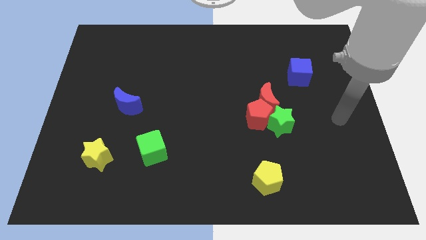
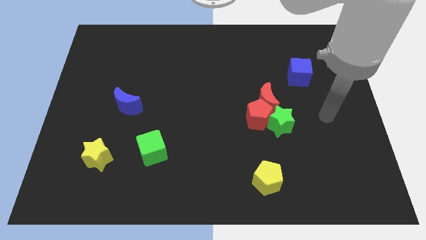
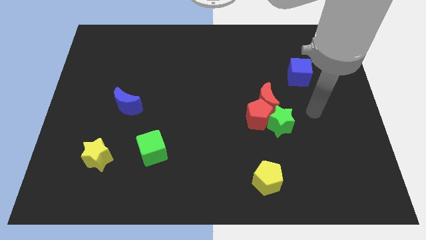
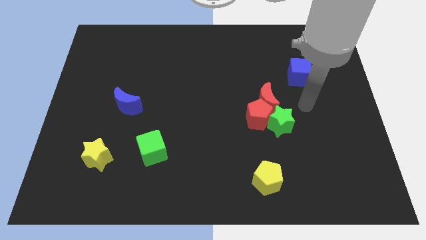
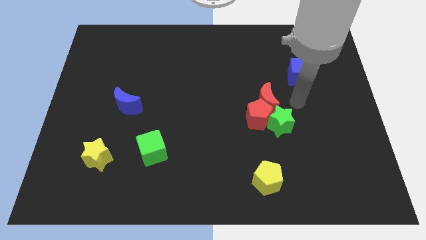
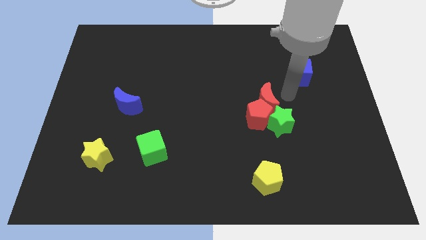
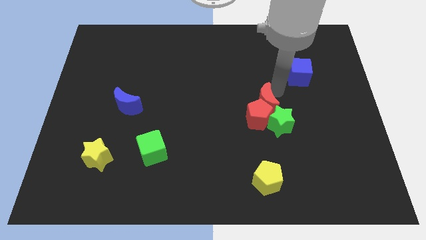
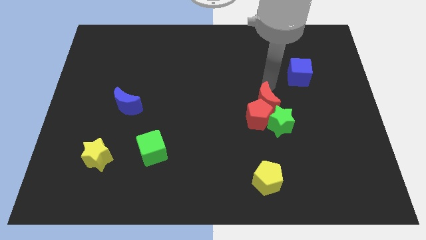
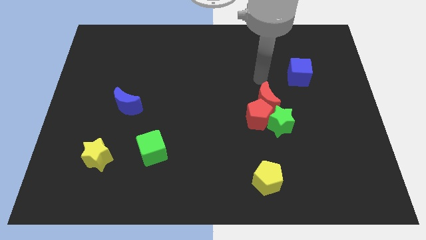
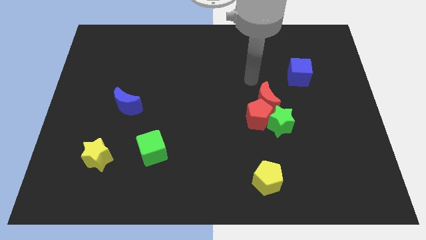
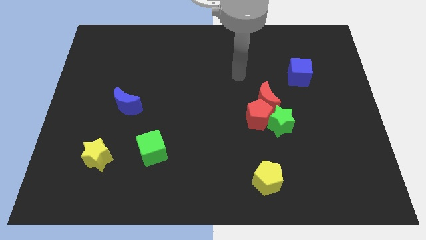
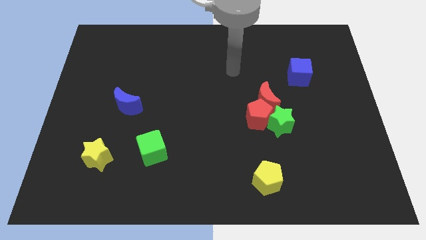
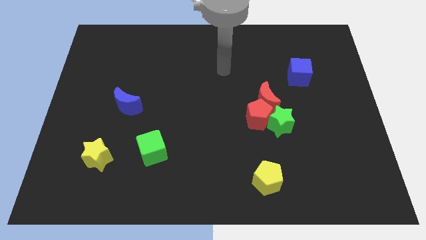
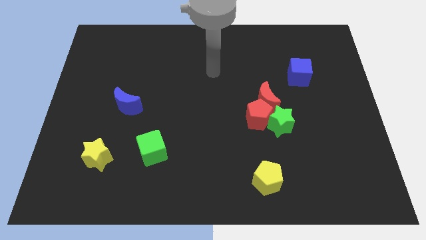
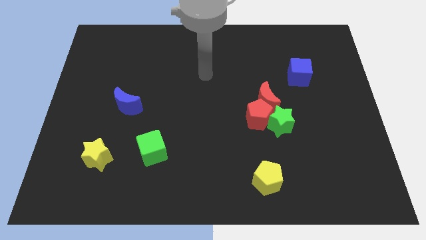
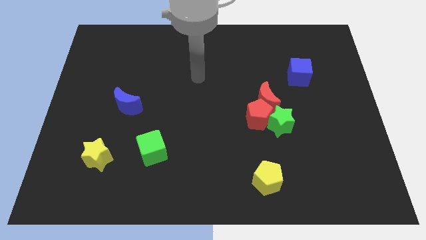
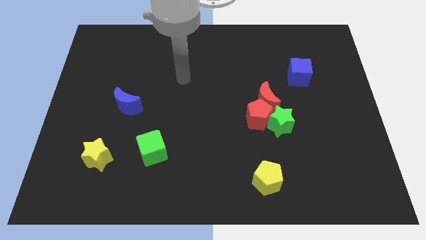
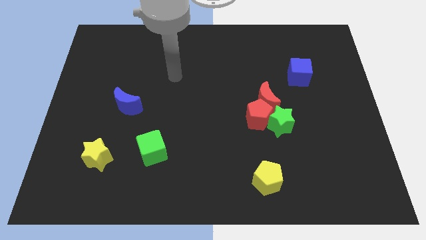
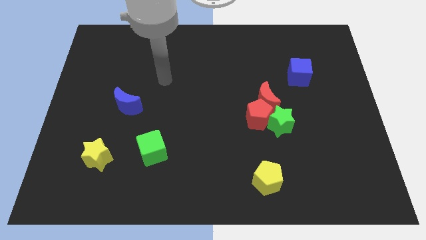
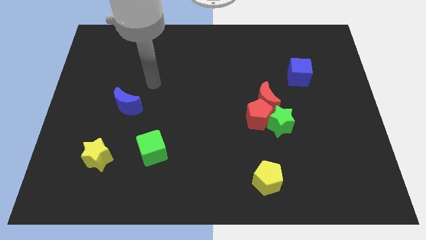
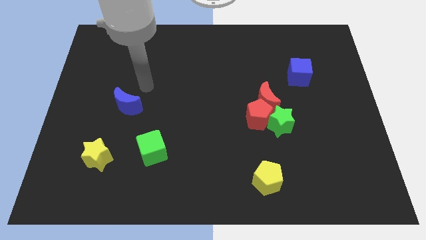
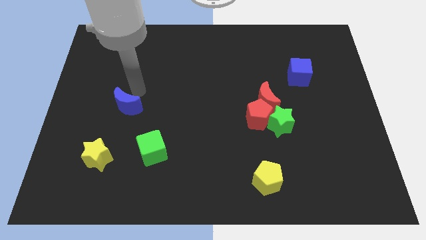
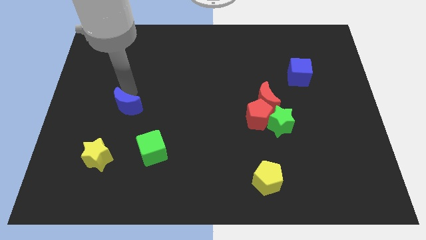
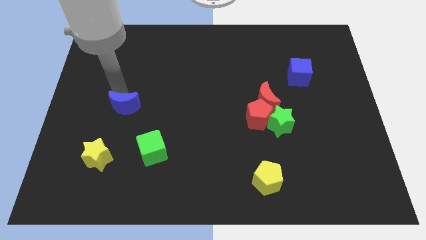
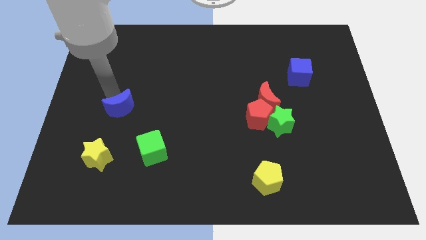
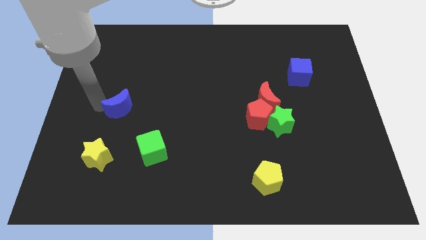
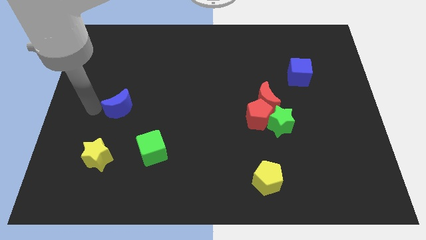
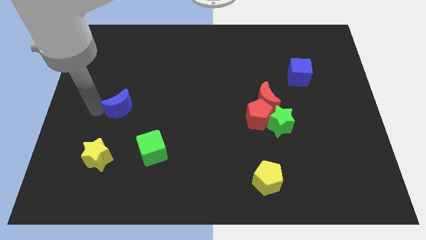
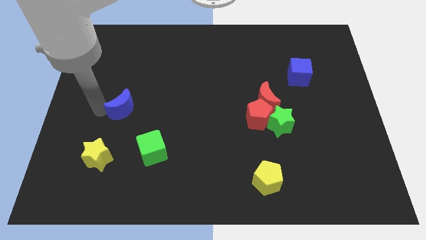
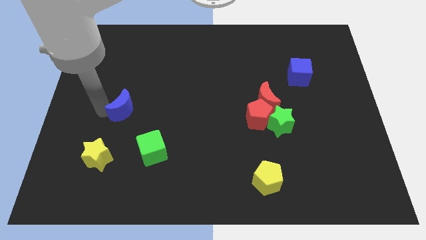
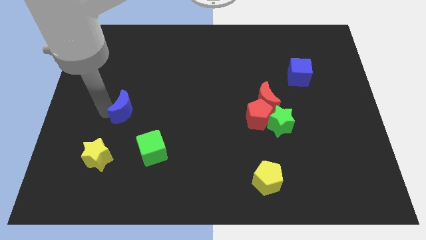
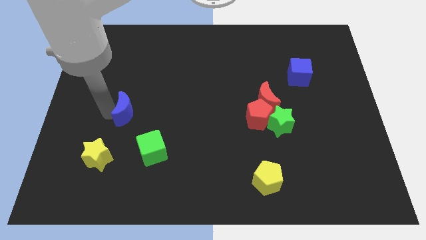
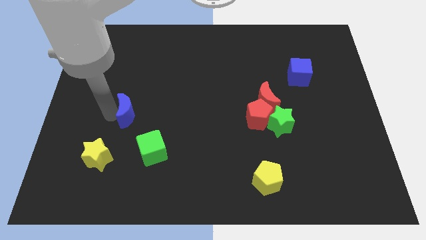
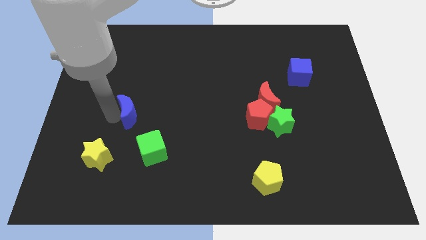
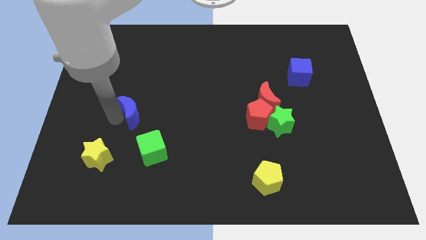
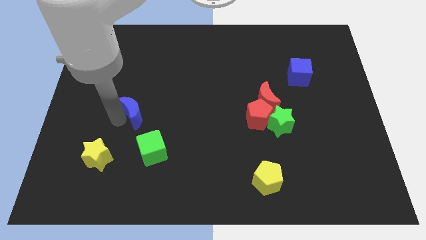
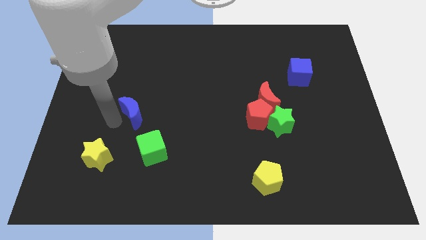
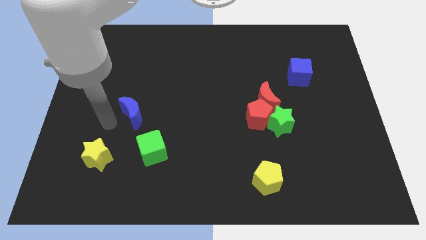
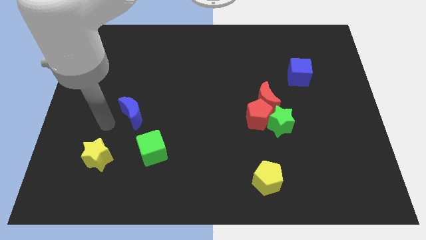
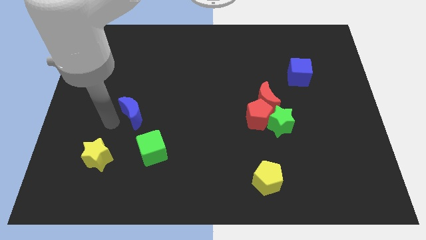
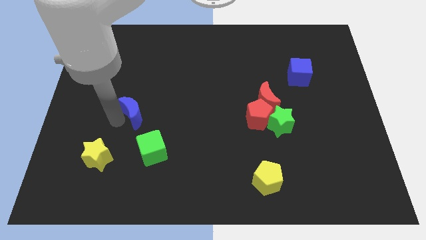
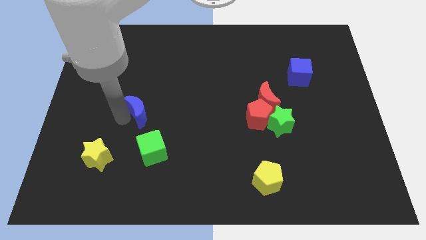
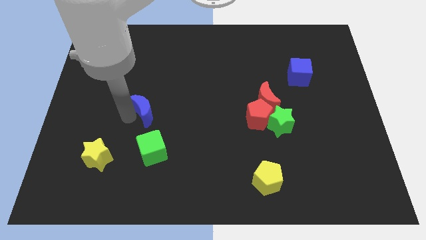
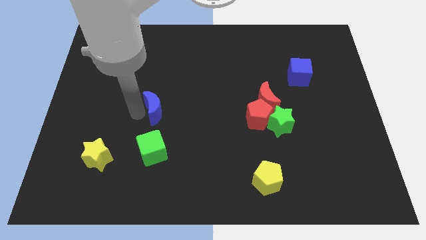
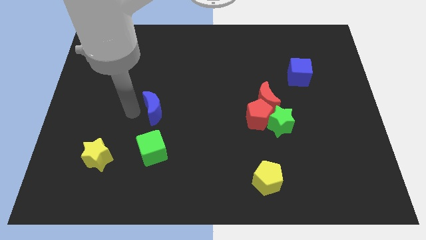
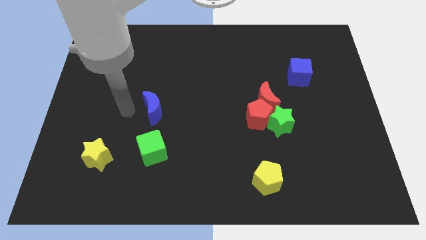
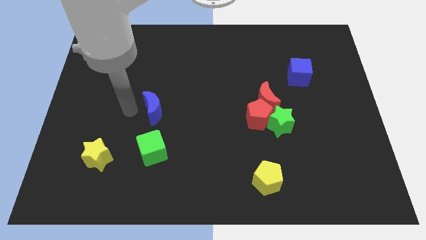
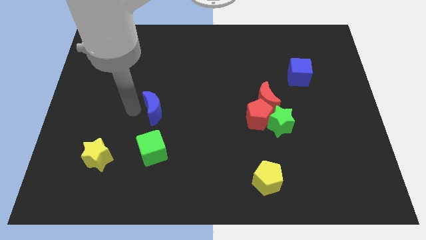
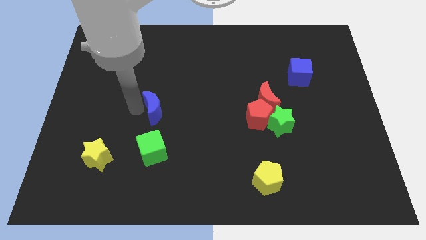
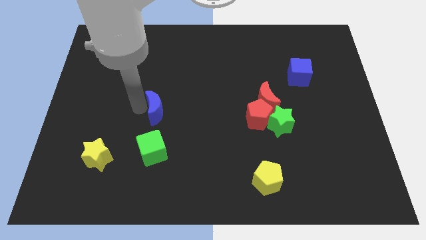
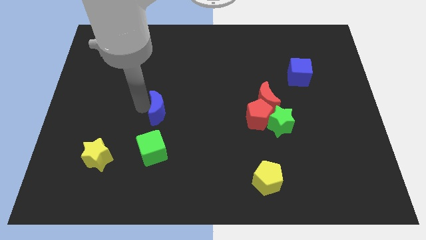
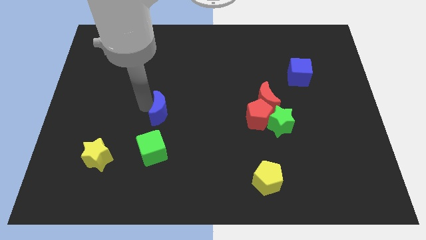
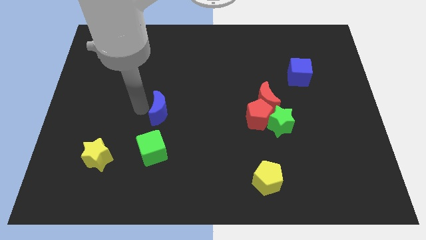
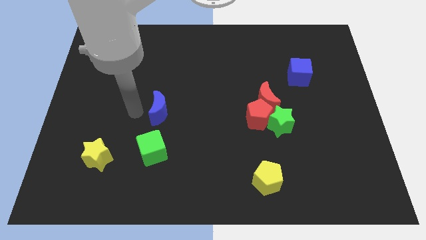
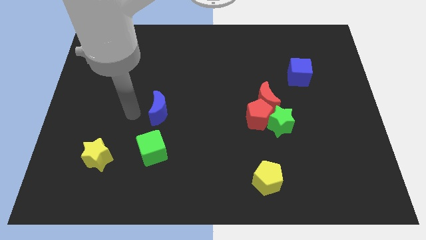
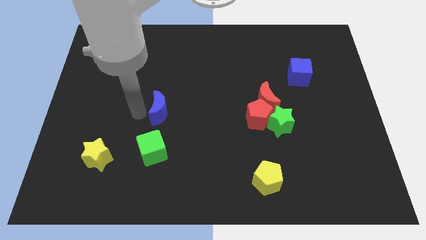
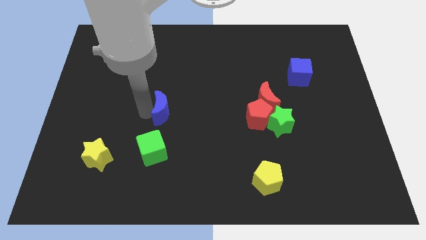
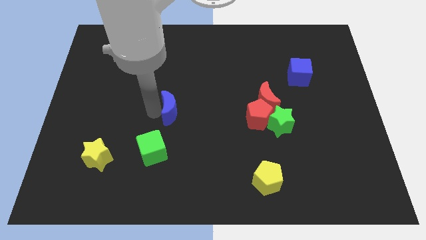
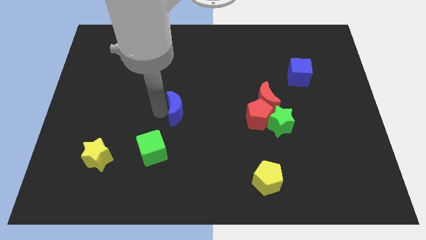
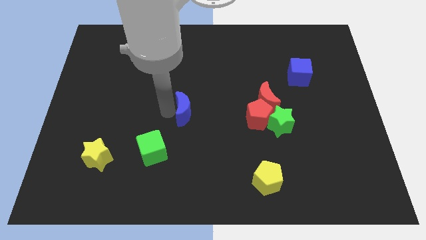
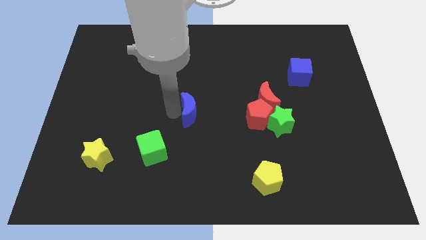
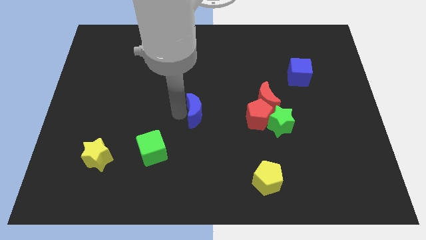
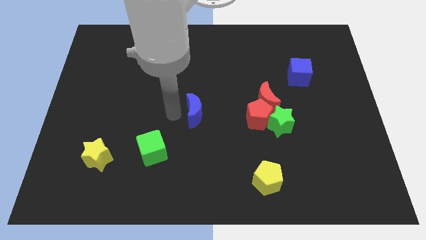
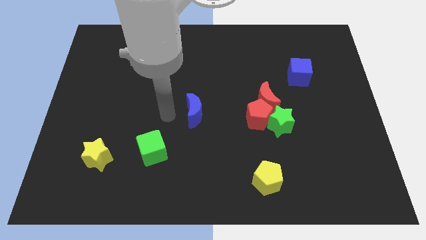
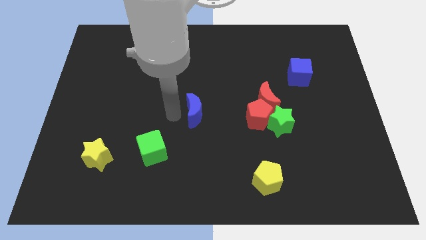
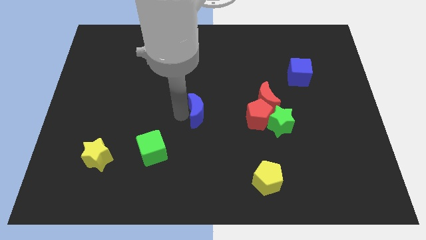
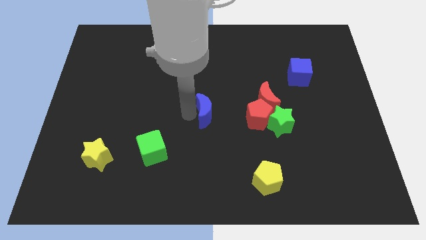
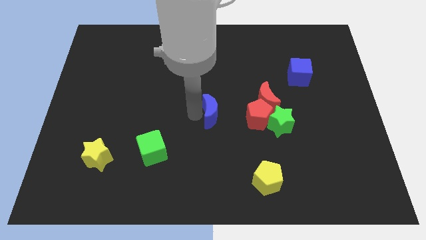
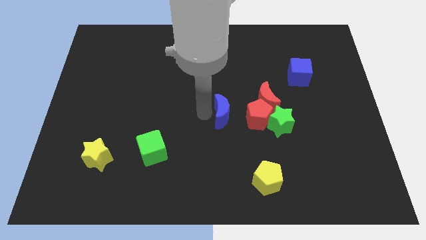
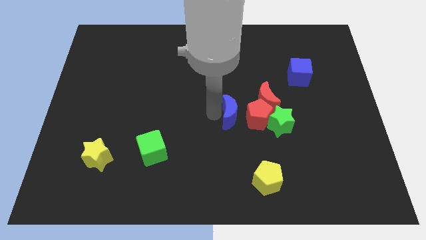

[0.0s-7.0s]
move the blue moon close to the red pentagon

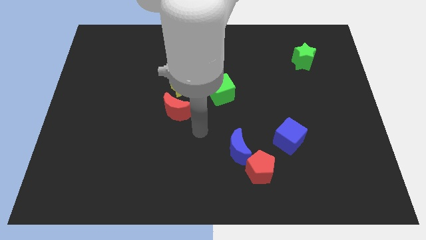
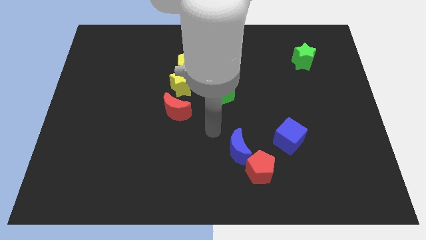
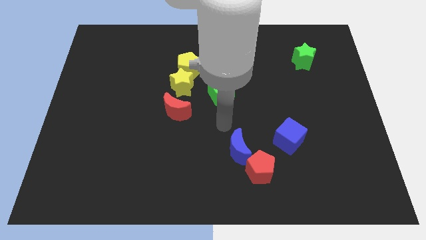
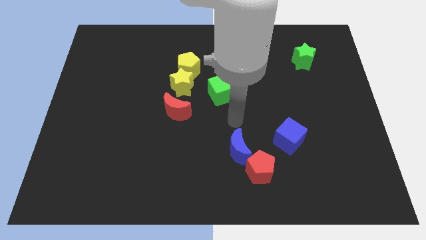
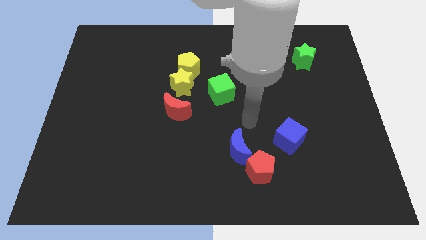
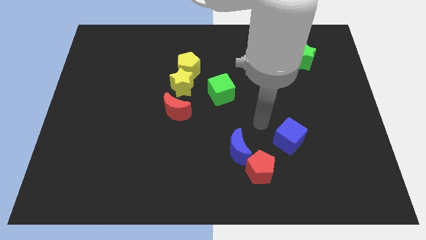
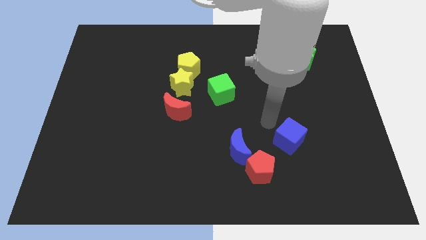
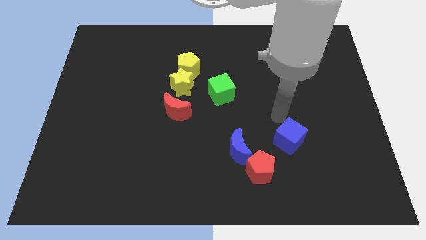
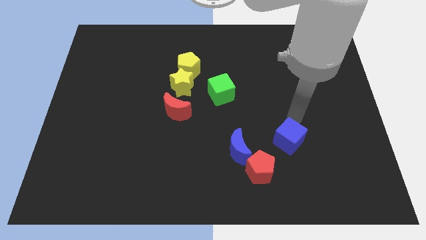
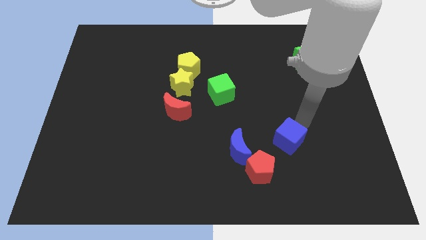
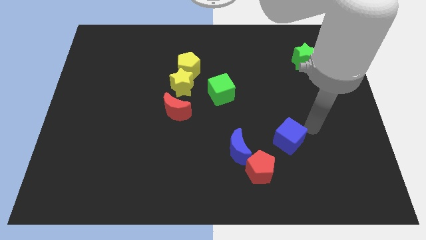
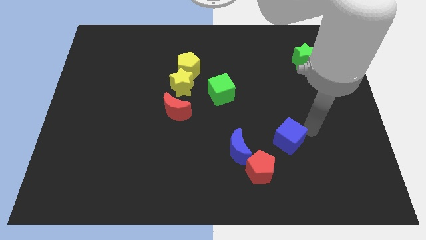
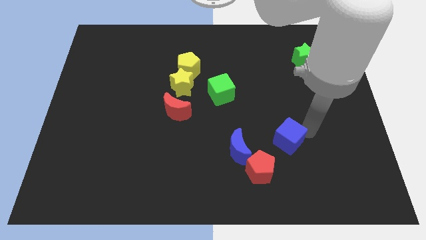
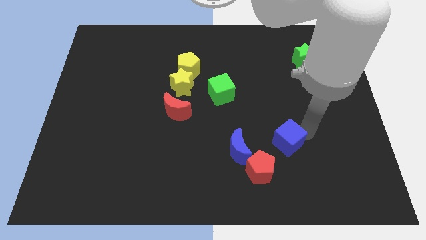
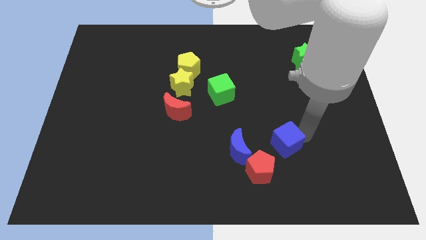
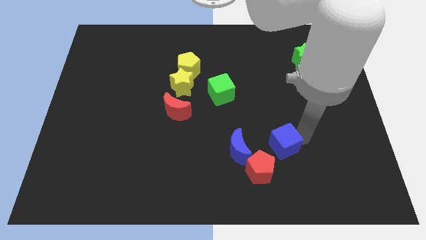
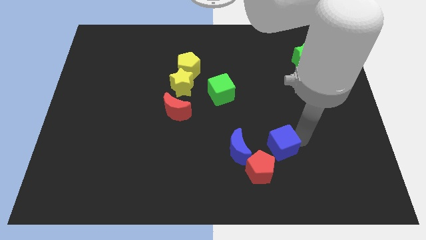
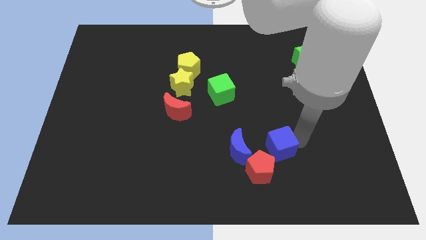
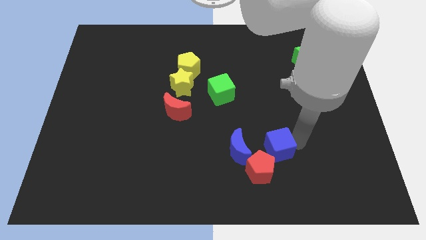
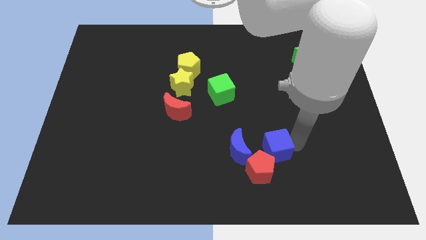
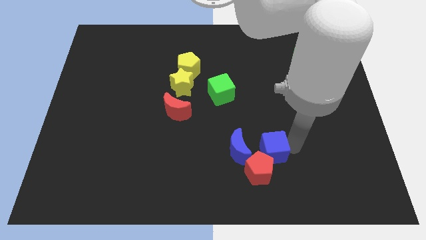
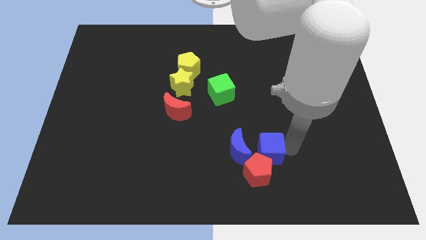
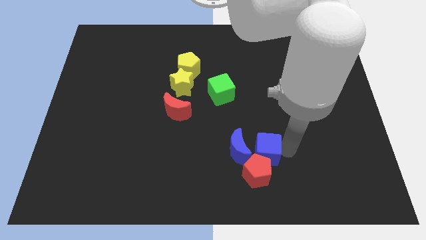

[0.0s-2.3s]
push the blue cube close to the blue moon
